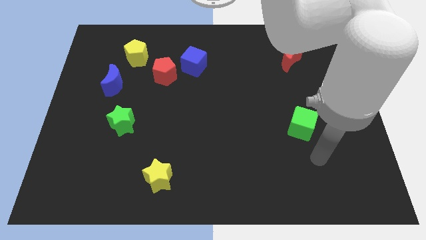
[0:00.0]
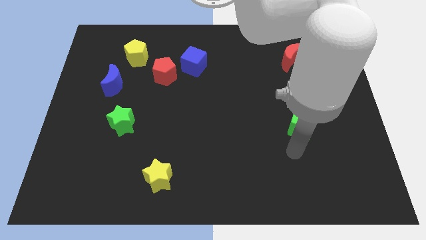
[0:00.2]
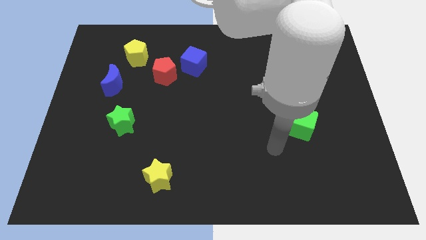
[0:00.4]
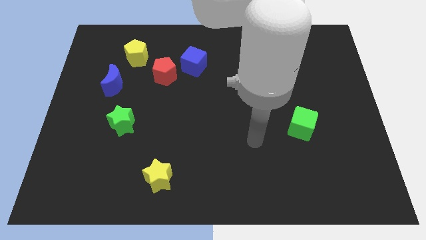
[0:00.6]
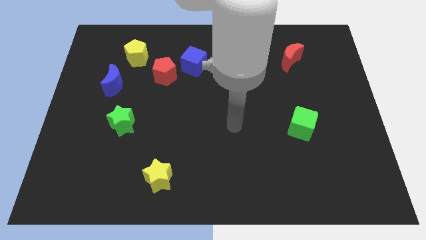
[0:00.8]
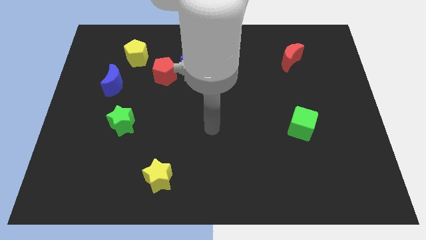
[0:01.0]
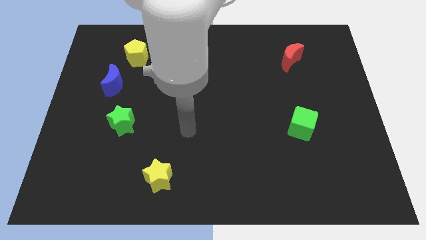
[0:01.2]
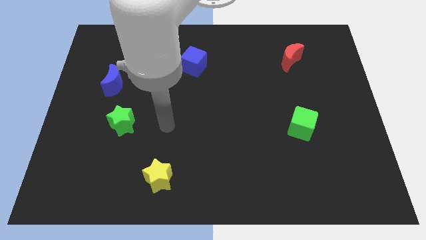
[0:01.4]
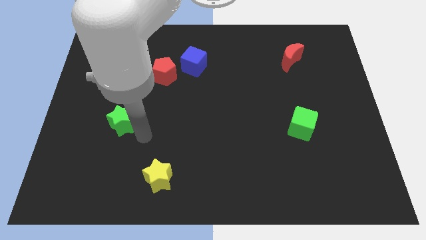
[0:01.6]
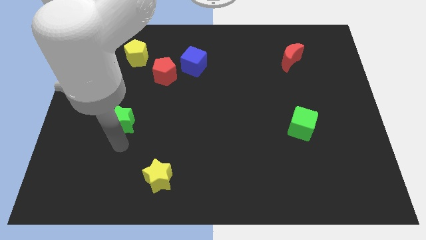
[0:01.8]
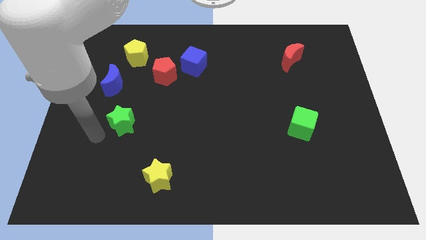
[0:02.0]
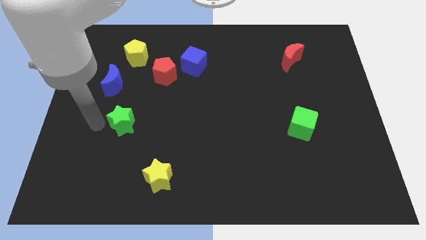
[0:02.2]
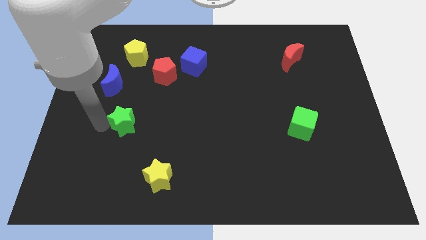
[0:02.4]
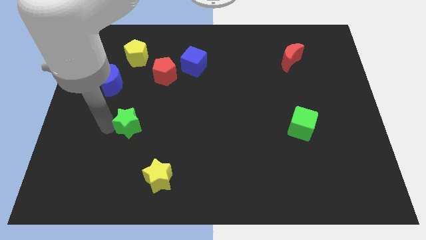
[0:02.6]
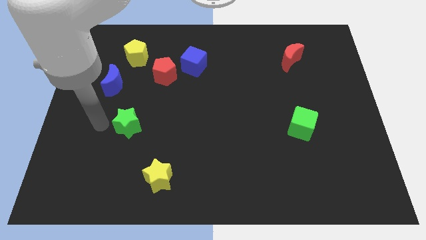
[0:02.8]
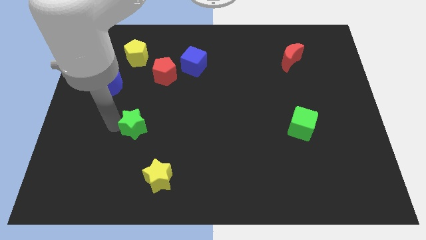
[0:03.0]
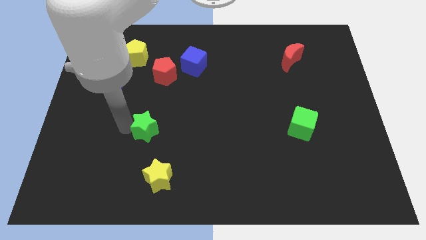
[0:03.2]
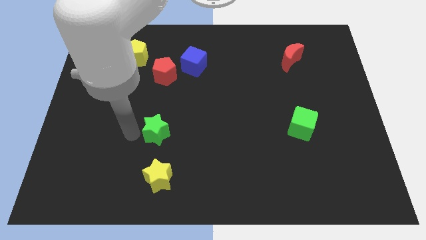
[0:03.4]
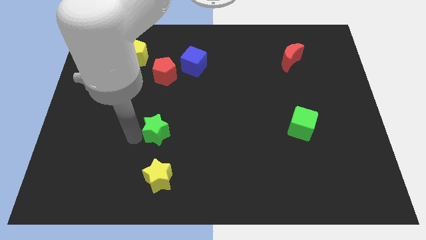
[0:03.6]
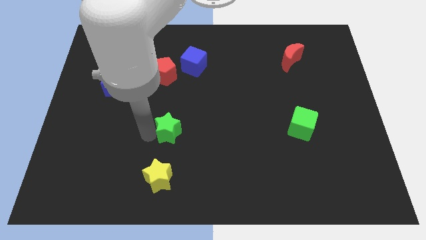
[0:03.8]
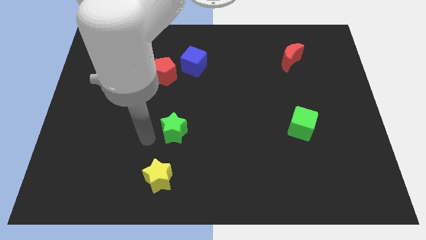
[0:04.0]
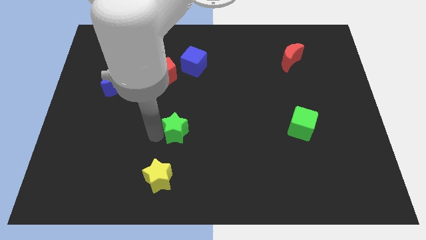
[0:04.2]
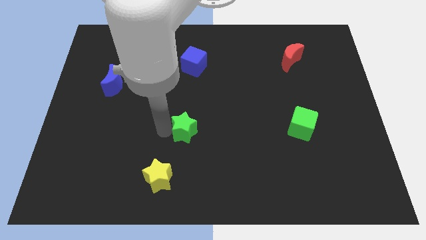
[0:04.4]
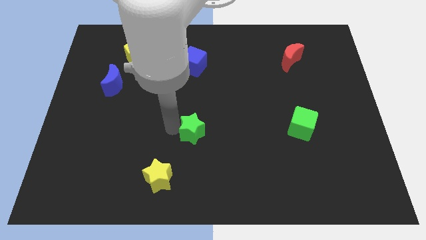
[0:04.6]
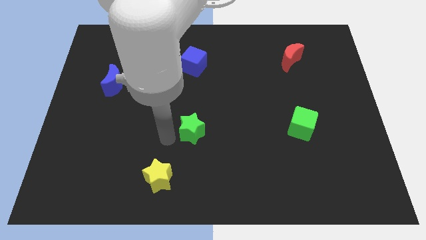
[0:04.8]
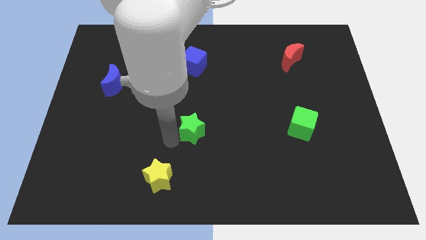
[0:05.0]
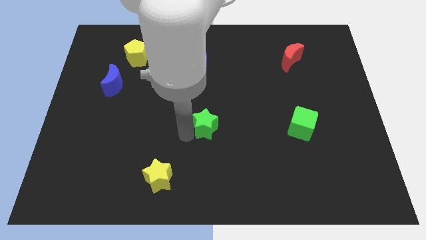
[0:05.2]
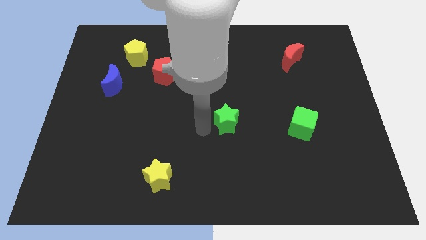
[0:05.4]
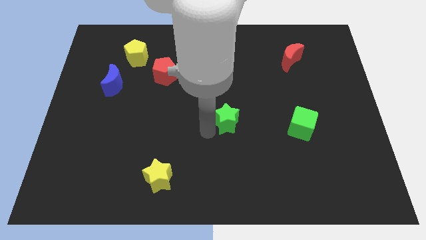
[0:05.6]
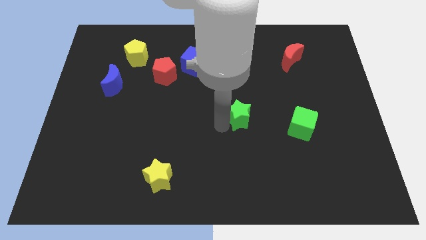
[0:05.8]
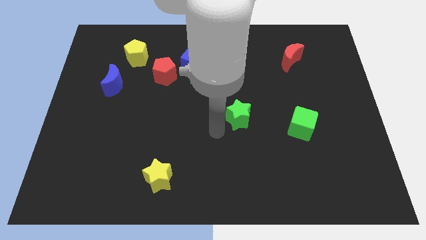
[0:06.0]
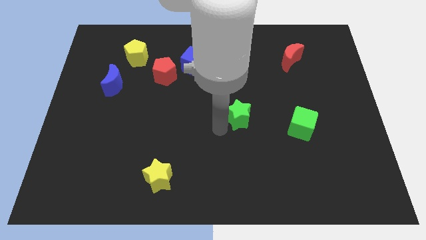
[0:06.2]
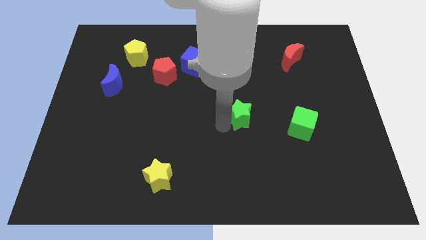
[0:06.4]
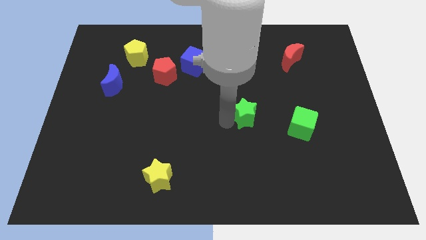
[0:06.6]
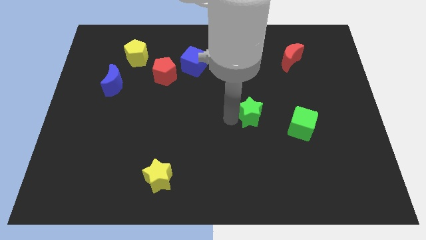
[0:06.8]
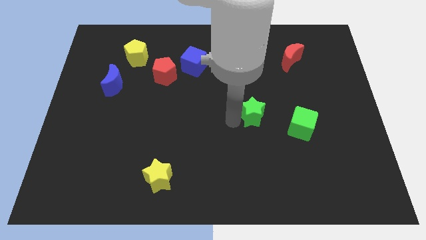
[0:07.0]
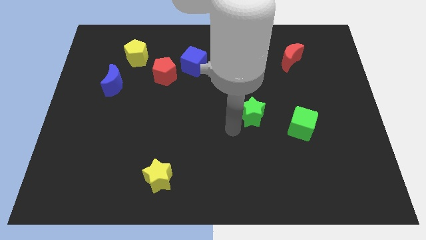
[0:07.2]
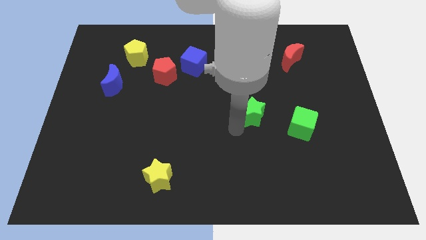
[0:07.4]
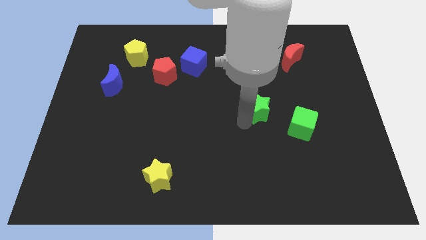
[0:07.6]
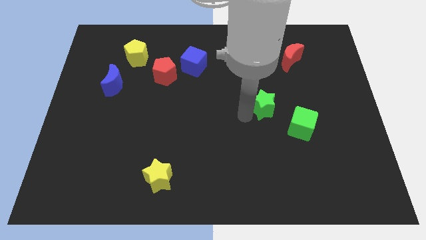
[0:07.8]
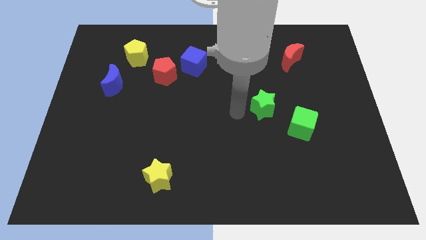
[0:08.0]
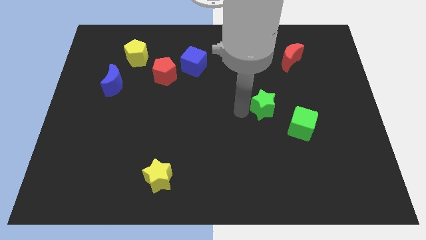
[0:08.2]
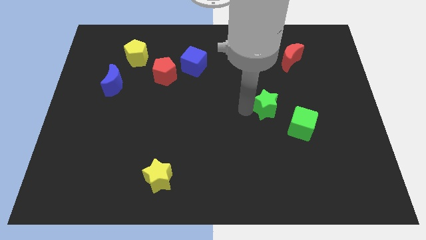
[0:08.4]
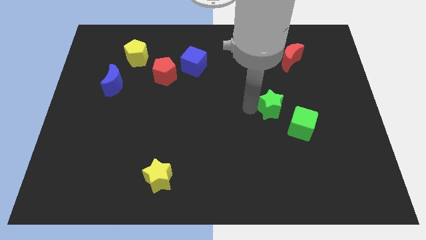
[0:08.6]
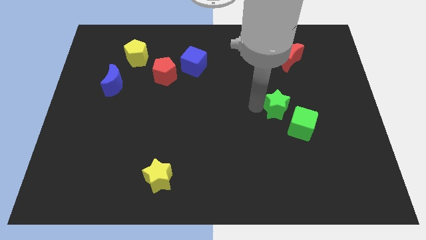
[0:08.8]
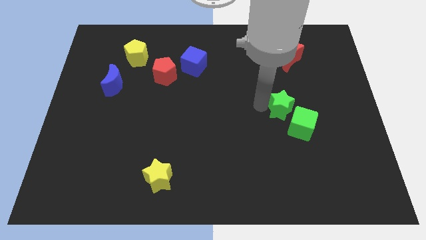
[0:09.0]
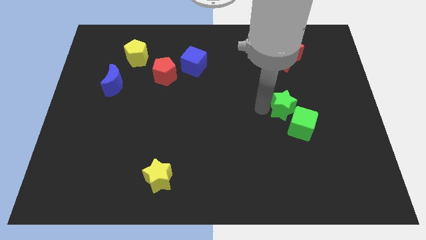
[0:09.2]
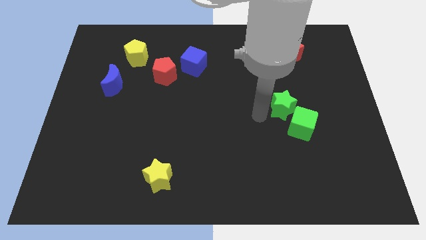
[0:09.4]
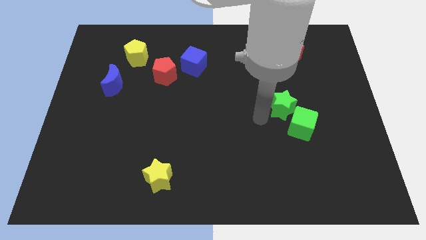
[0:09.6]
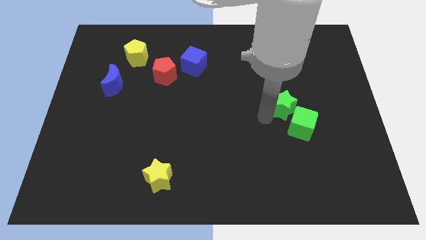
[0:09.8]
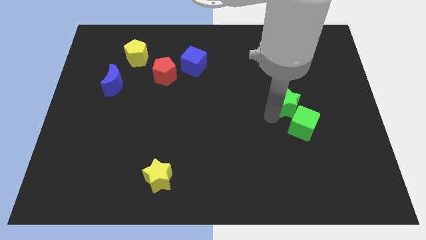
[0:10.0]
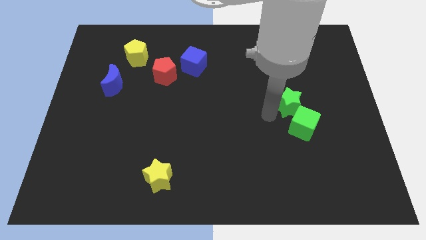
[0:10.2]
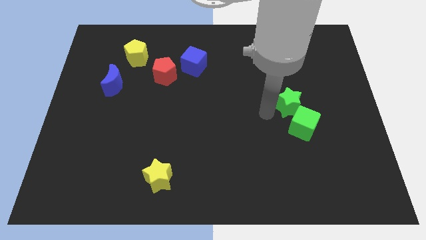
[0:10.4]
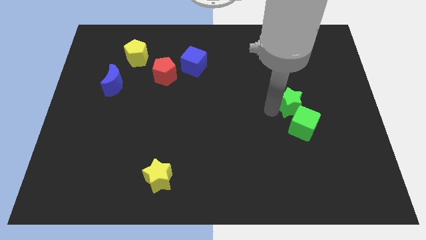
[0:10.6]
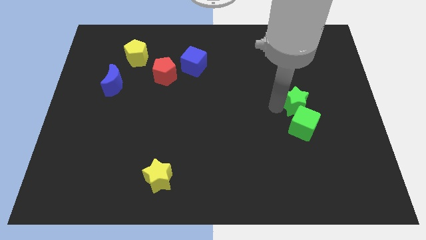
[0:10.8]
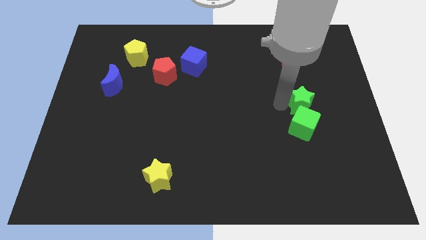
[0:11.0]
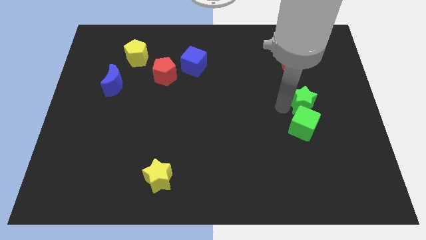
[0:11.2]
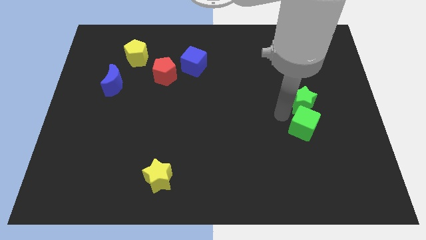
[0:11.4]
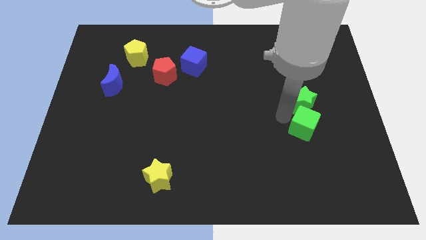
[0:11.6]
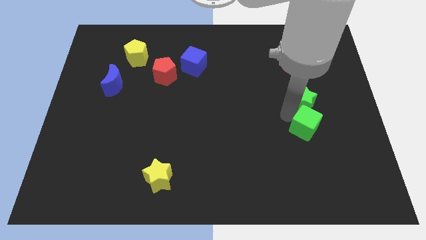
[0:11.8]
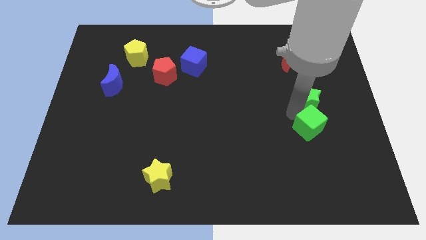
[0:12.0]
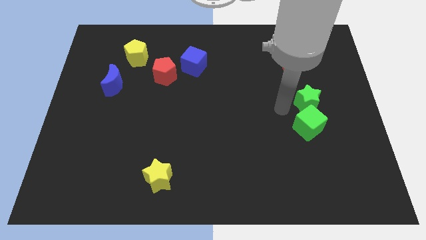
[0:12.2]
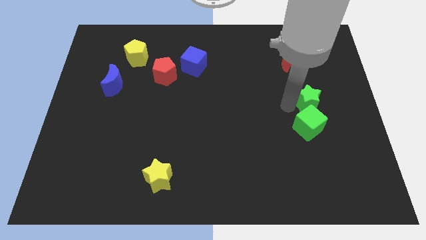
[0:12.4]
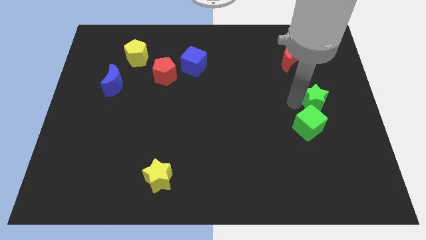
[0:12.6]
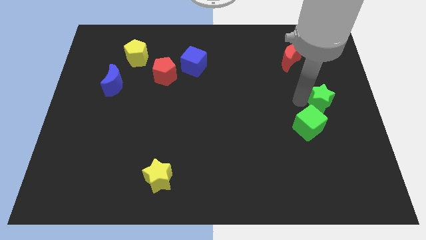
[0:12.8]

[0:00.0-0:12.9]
slide the green star to the right side of the board
